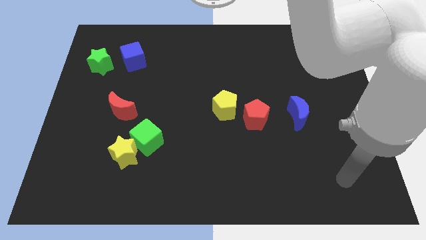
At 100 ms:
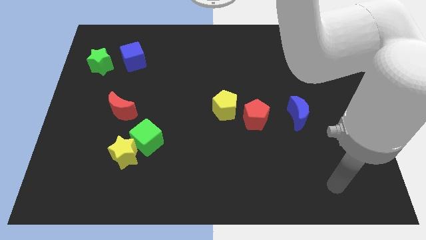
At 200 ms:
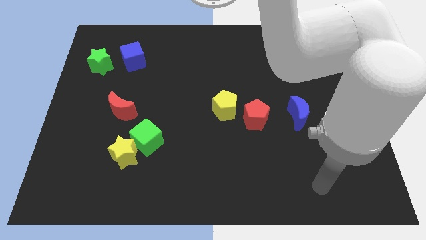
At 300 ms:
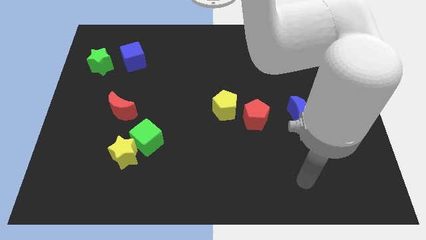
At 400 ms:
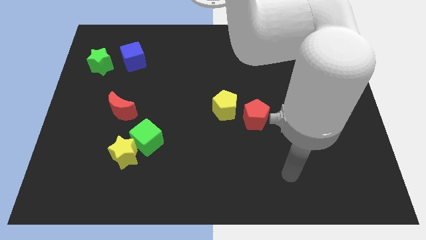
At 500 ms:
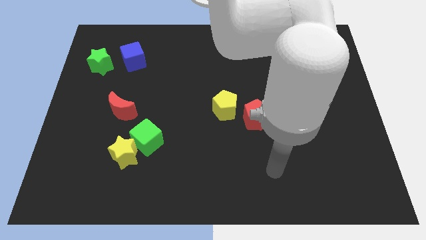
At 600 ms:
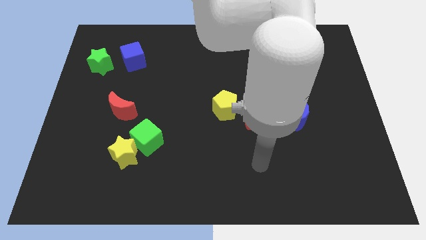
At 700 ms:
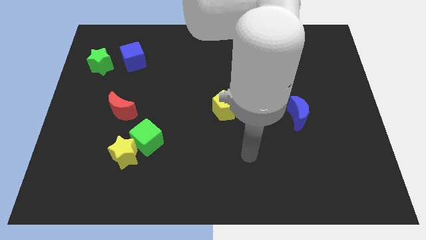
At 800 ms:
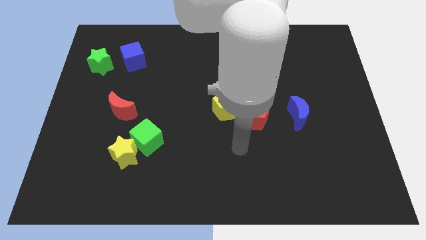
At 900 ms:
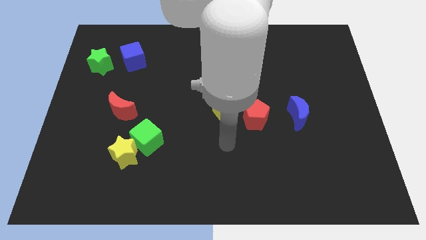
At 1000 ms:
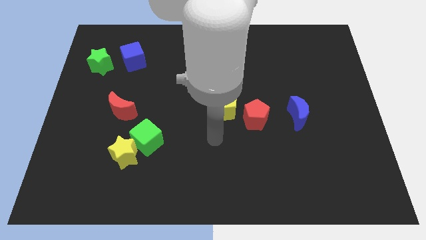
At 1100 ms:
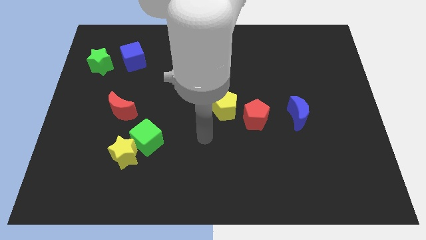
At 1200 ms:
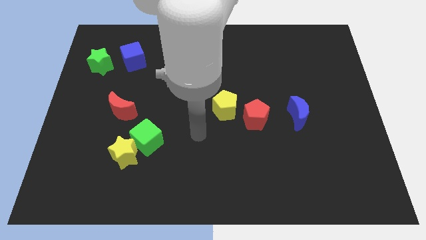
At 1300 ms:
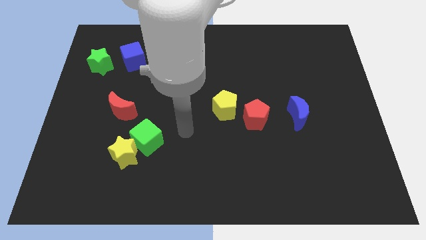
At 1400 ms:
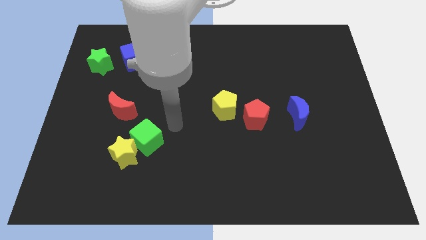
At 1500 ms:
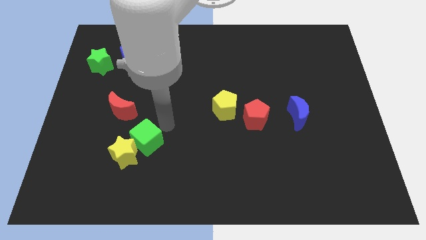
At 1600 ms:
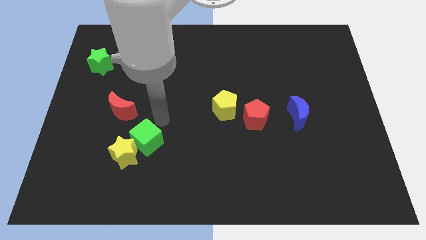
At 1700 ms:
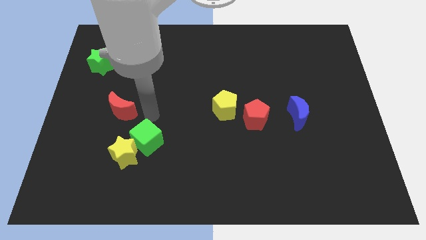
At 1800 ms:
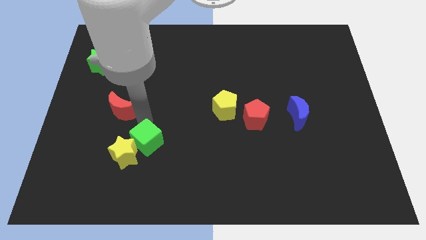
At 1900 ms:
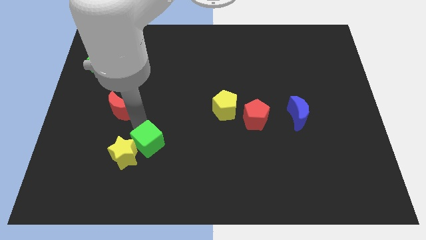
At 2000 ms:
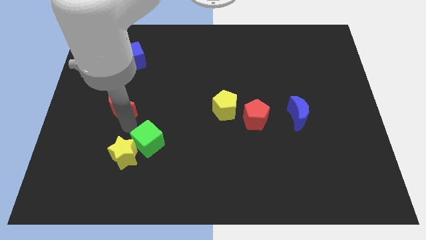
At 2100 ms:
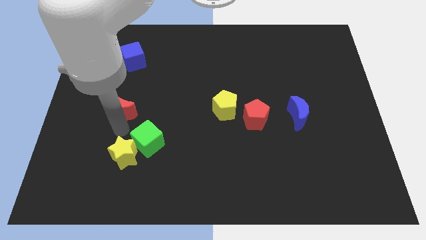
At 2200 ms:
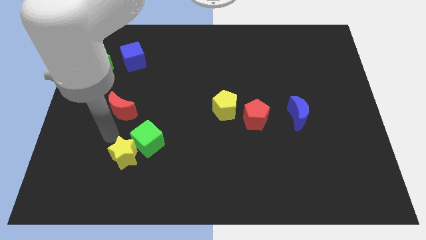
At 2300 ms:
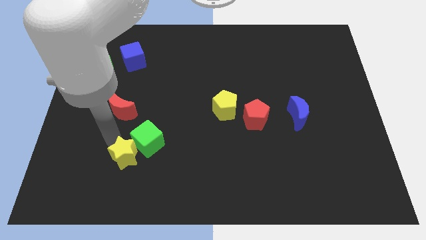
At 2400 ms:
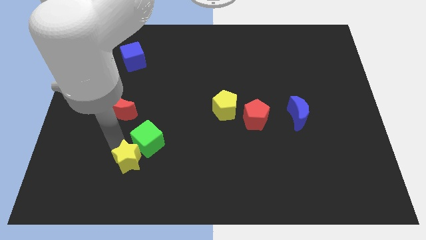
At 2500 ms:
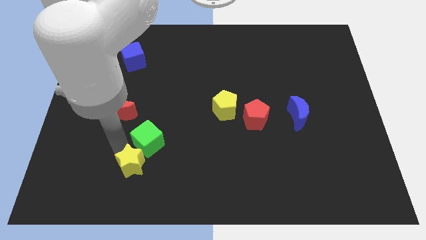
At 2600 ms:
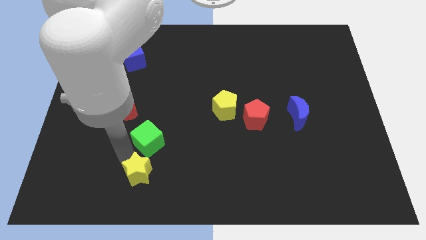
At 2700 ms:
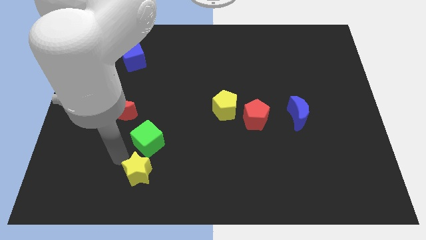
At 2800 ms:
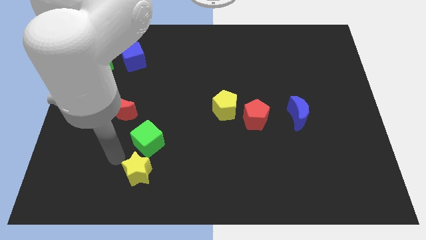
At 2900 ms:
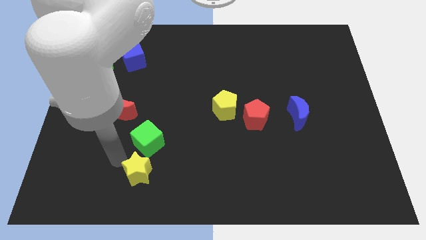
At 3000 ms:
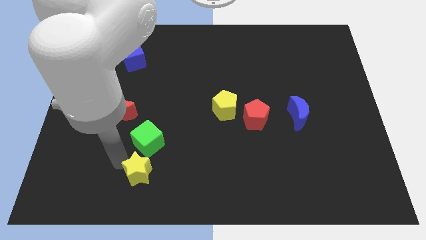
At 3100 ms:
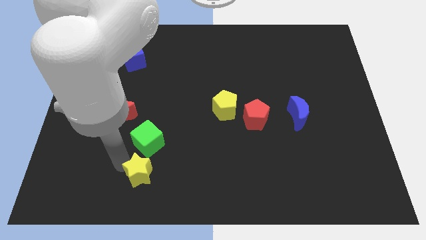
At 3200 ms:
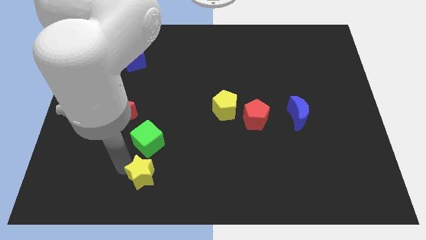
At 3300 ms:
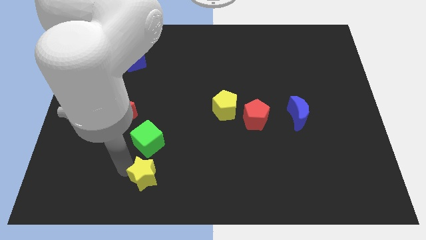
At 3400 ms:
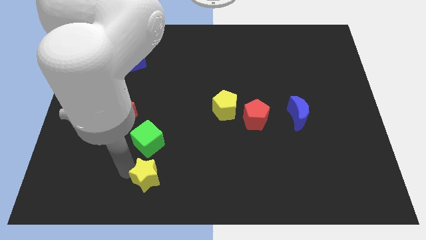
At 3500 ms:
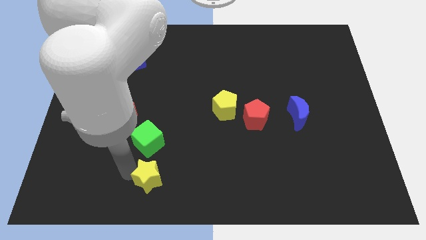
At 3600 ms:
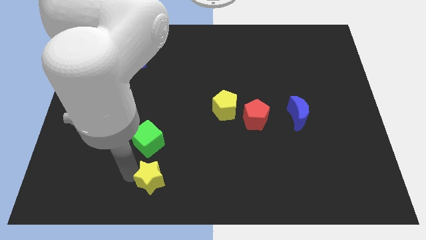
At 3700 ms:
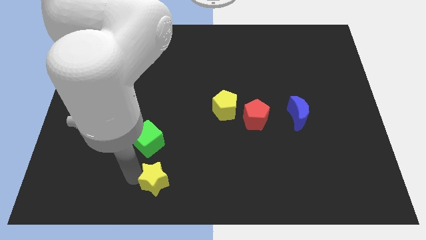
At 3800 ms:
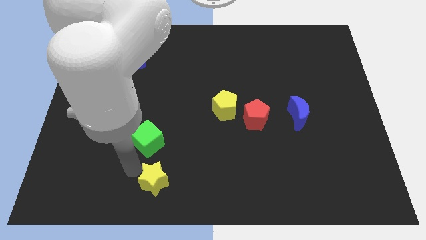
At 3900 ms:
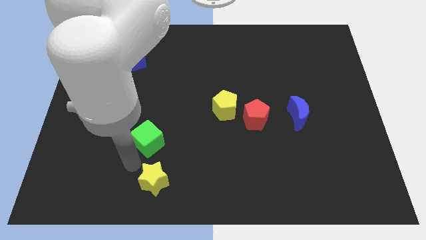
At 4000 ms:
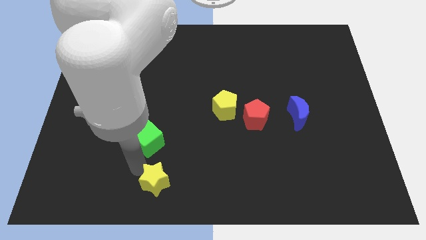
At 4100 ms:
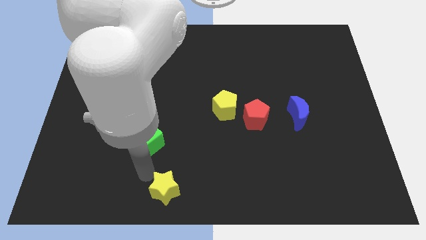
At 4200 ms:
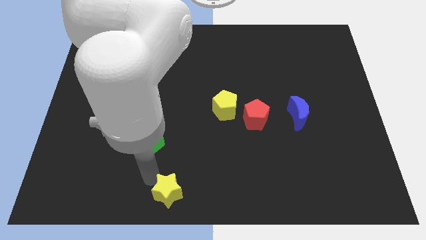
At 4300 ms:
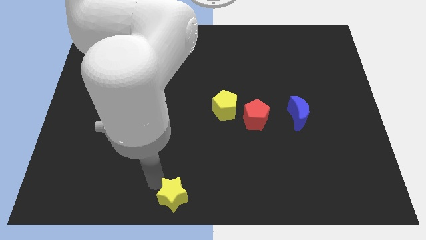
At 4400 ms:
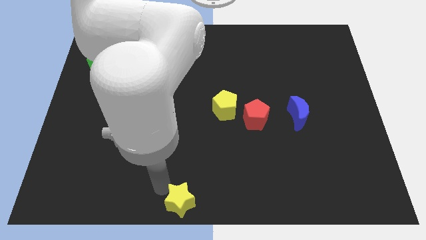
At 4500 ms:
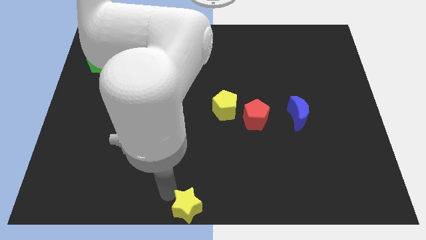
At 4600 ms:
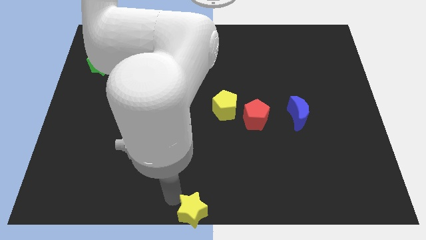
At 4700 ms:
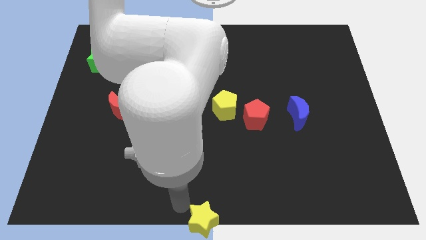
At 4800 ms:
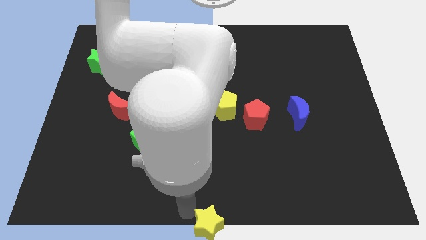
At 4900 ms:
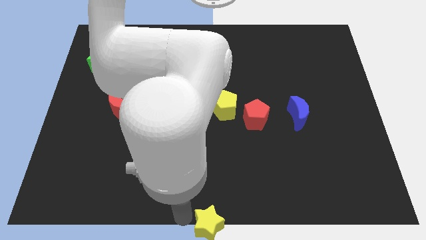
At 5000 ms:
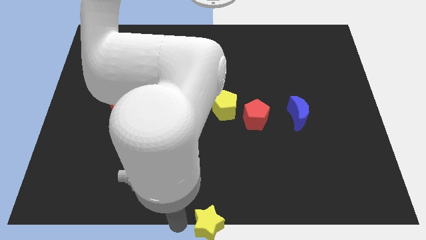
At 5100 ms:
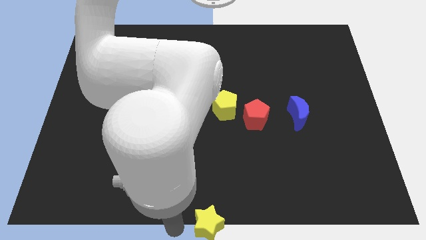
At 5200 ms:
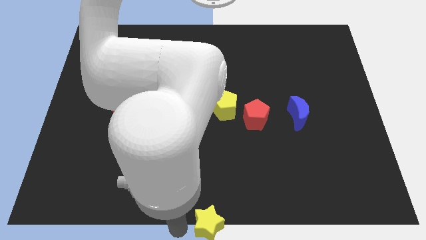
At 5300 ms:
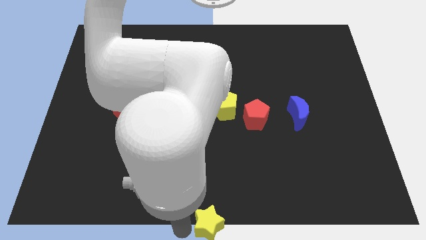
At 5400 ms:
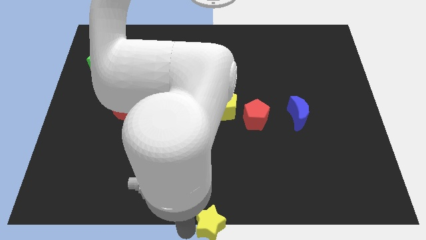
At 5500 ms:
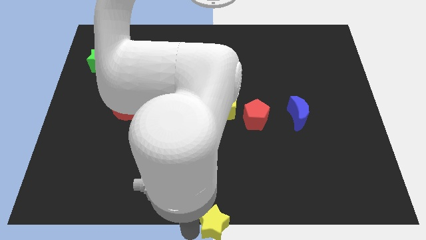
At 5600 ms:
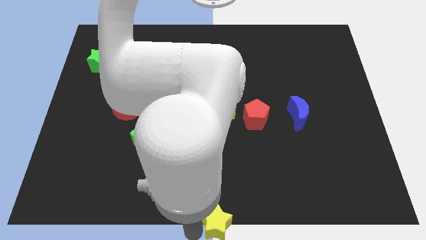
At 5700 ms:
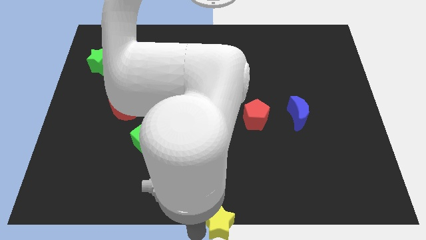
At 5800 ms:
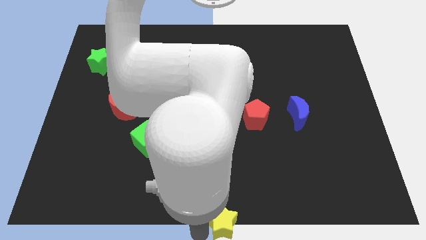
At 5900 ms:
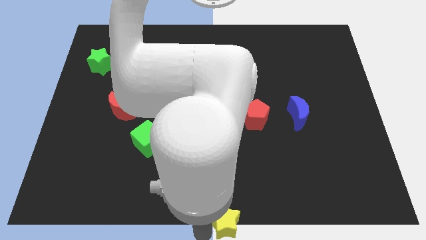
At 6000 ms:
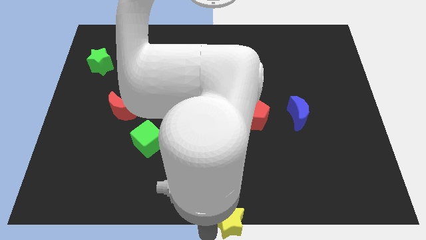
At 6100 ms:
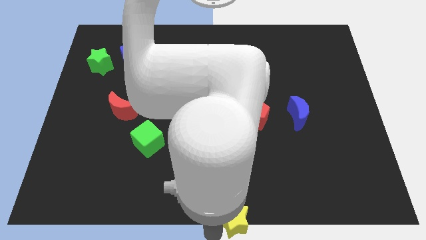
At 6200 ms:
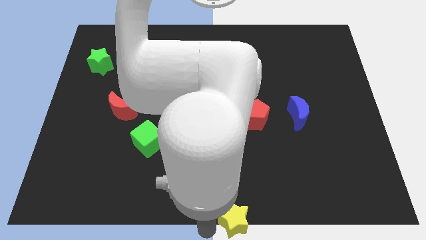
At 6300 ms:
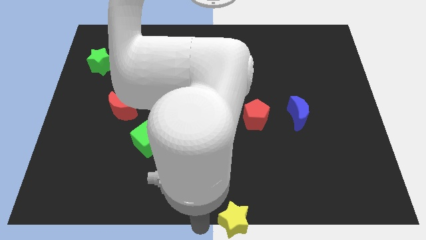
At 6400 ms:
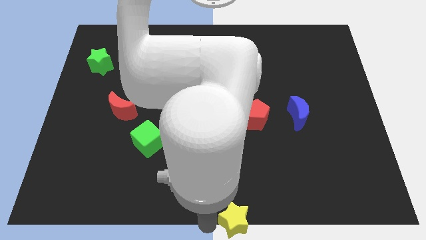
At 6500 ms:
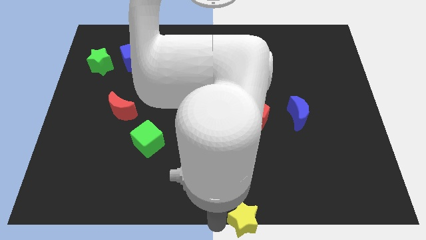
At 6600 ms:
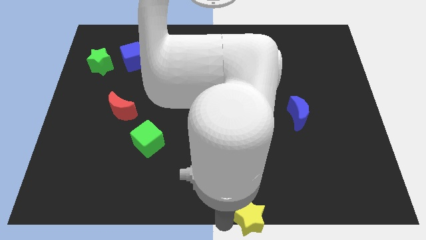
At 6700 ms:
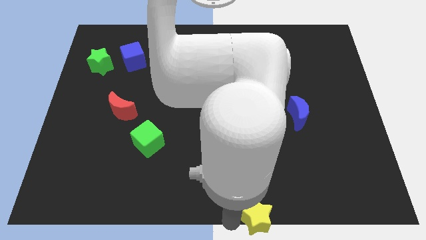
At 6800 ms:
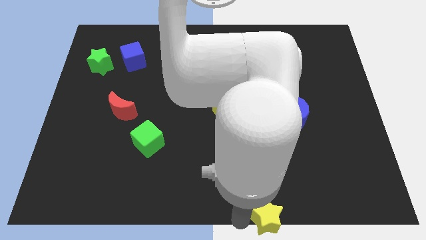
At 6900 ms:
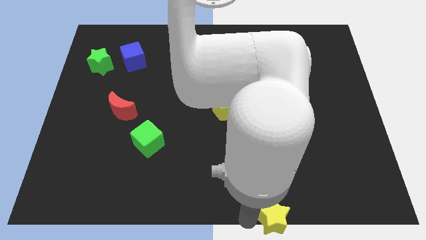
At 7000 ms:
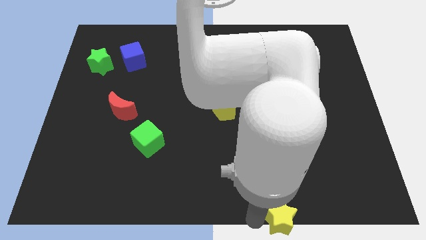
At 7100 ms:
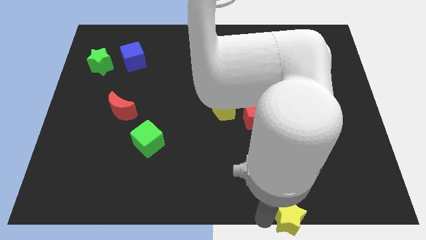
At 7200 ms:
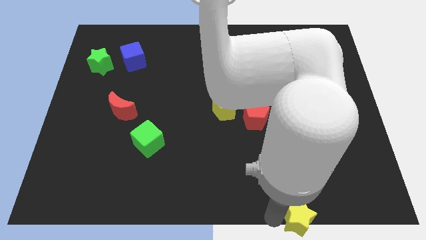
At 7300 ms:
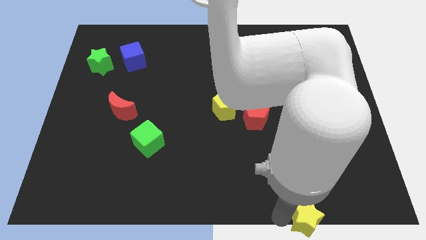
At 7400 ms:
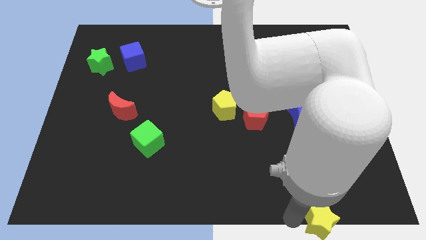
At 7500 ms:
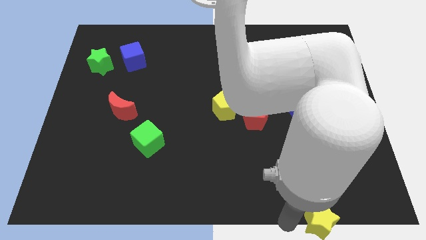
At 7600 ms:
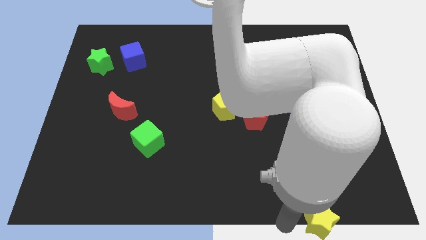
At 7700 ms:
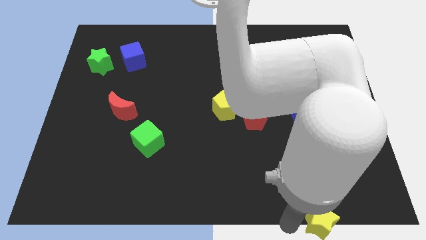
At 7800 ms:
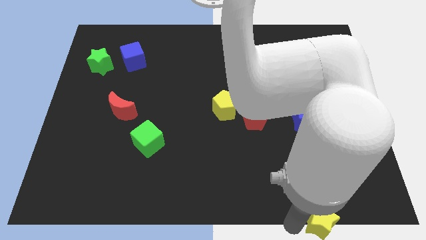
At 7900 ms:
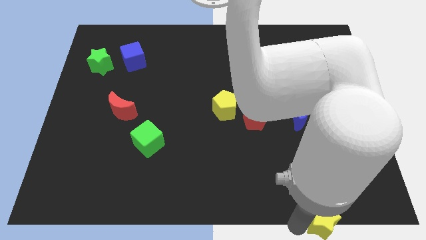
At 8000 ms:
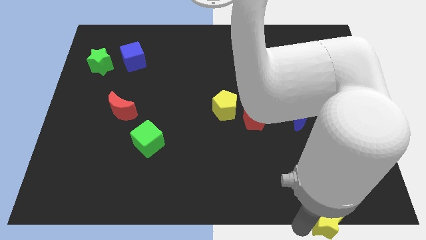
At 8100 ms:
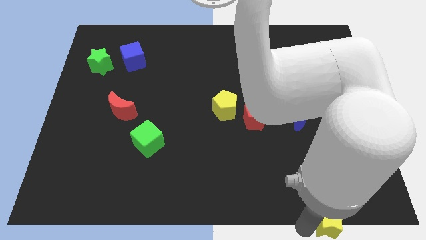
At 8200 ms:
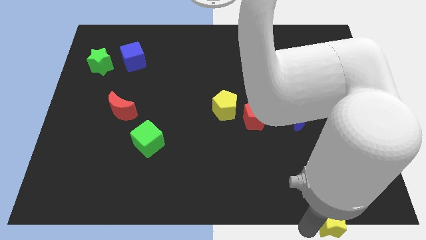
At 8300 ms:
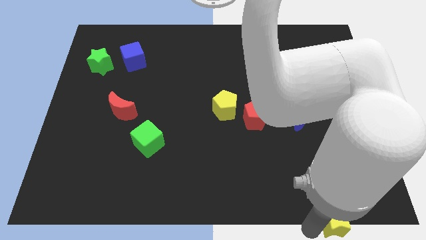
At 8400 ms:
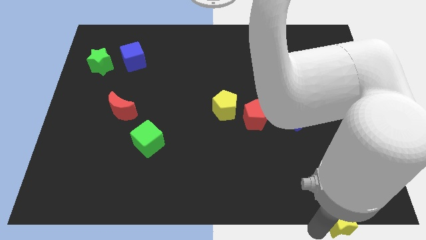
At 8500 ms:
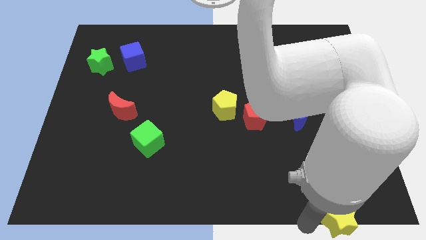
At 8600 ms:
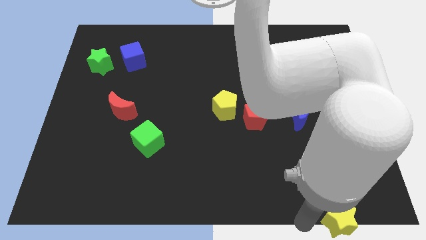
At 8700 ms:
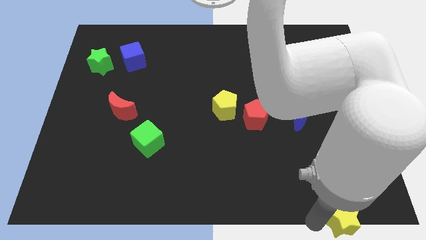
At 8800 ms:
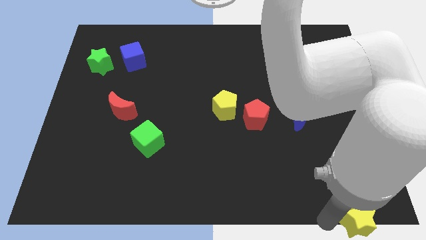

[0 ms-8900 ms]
put the yellow star to the lower right corner
